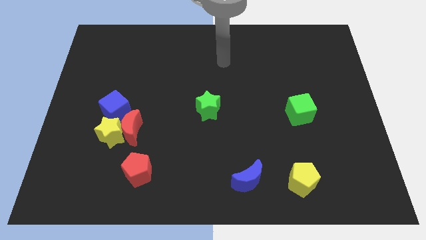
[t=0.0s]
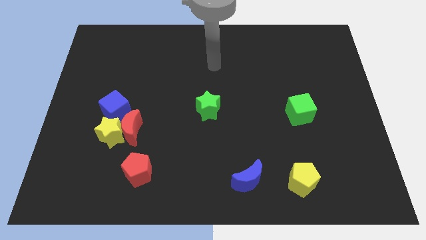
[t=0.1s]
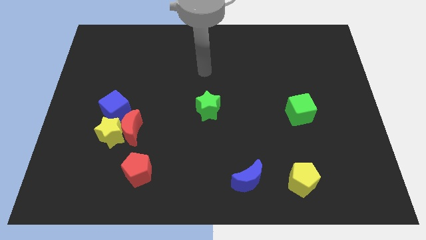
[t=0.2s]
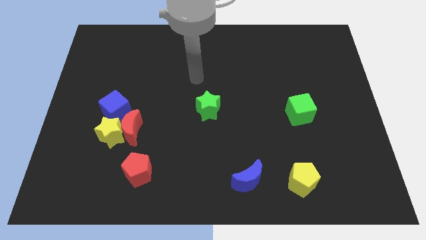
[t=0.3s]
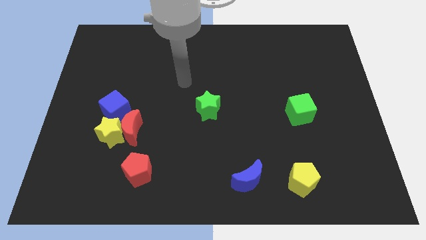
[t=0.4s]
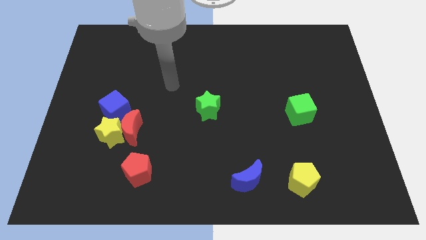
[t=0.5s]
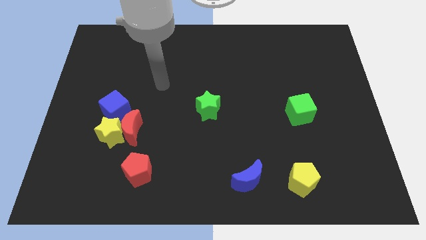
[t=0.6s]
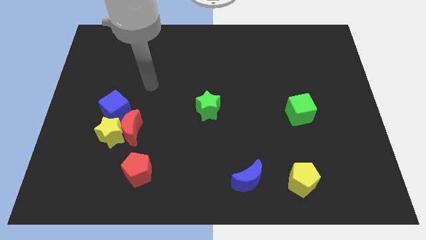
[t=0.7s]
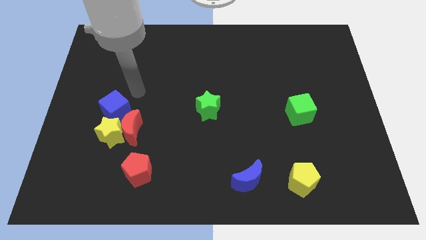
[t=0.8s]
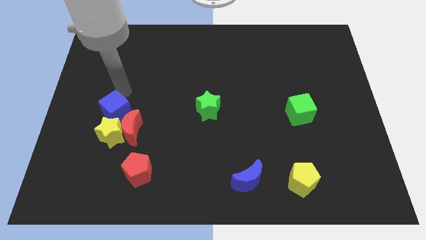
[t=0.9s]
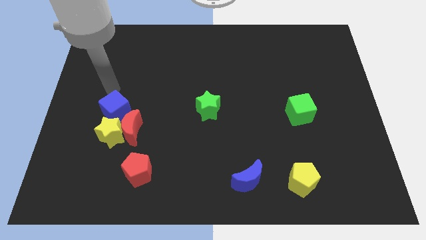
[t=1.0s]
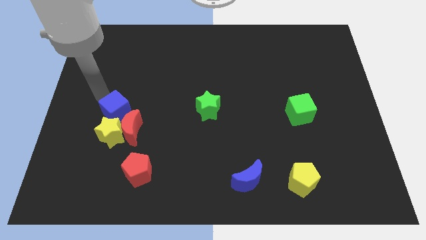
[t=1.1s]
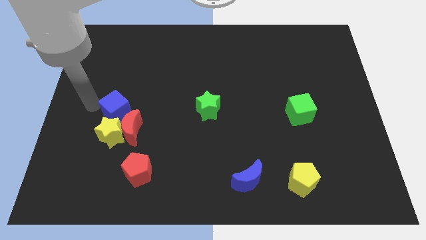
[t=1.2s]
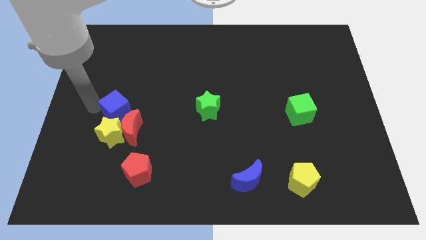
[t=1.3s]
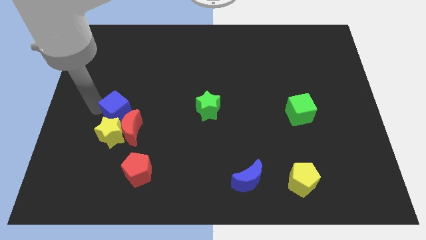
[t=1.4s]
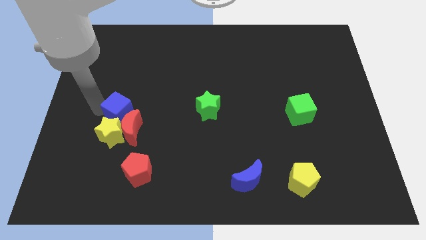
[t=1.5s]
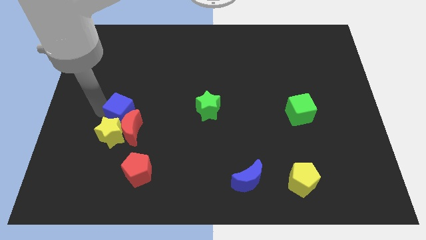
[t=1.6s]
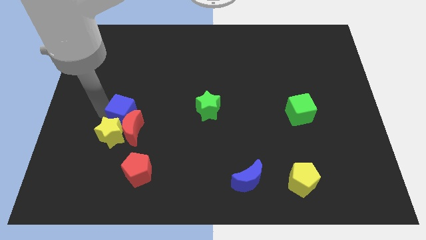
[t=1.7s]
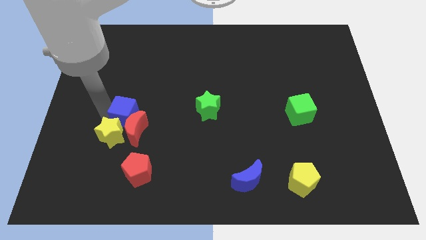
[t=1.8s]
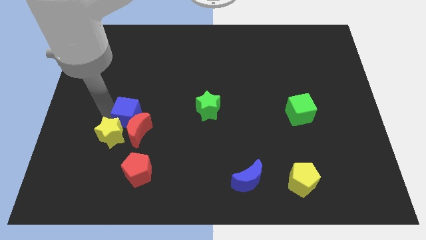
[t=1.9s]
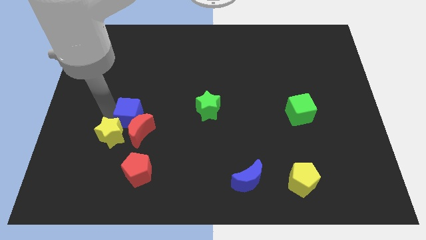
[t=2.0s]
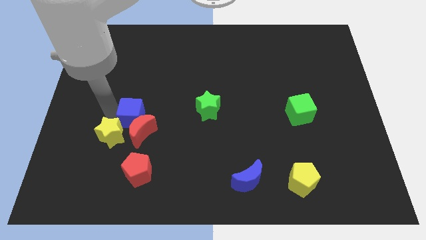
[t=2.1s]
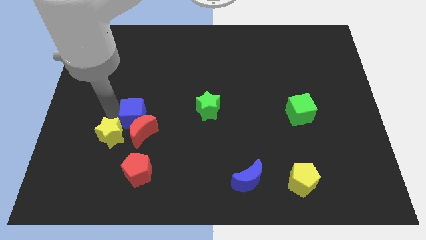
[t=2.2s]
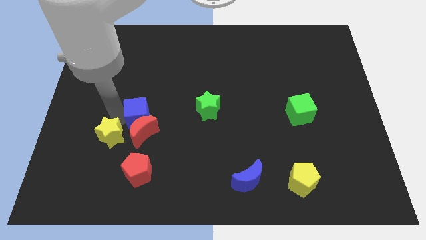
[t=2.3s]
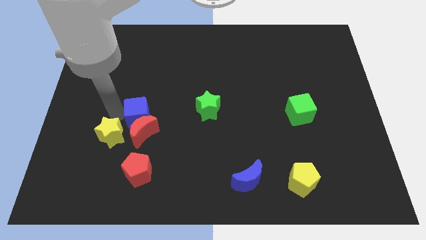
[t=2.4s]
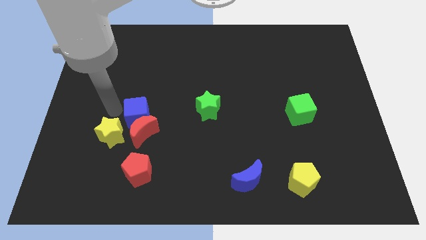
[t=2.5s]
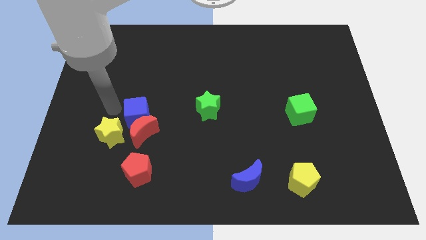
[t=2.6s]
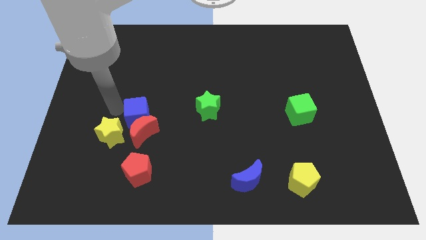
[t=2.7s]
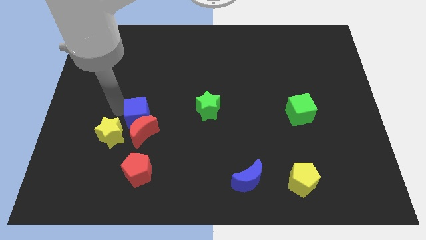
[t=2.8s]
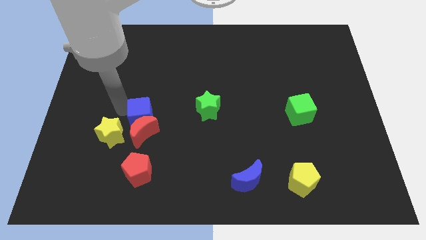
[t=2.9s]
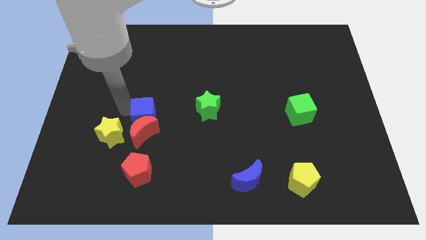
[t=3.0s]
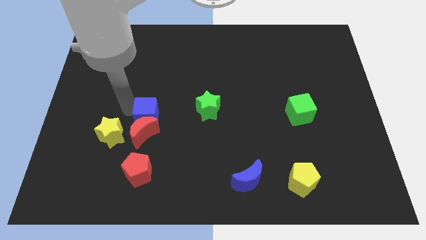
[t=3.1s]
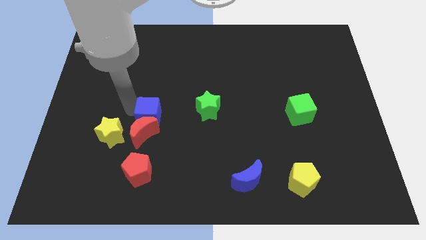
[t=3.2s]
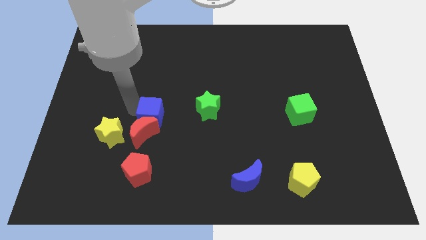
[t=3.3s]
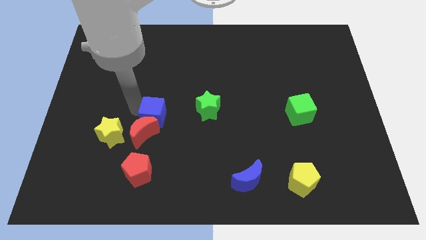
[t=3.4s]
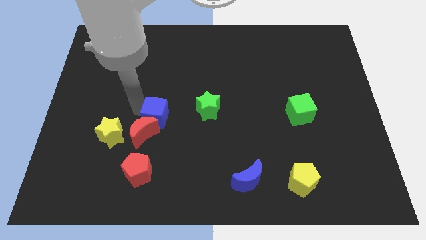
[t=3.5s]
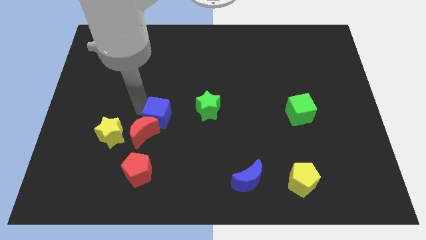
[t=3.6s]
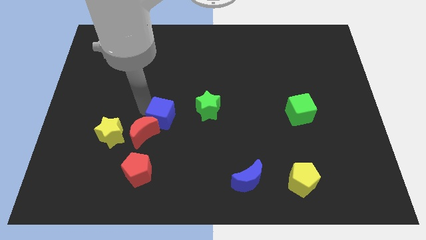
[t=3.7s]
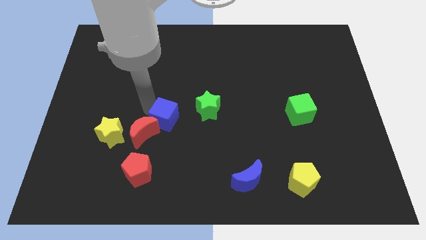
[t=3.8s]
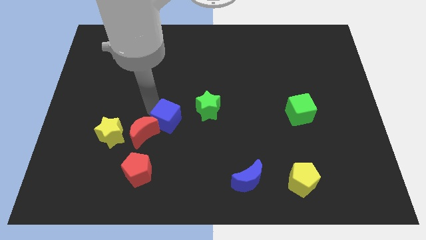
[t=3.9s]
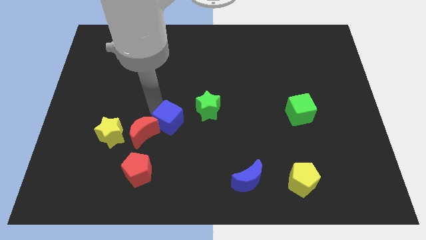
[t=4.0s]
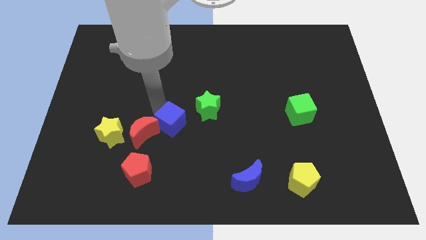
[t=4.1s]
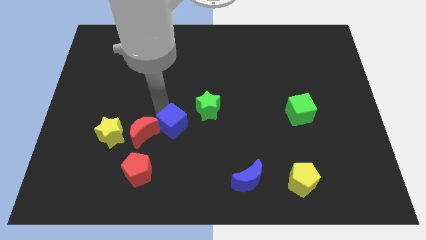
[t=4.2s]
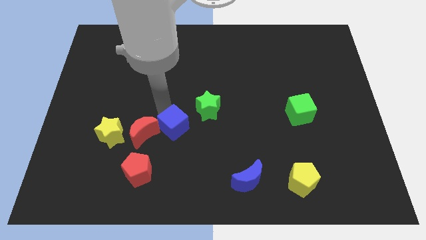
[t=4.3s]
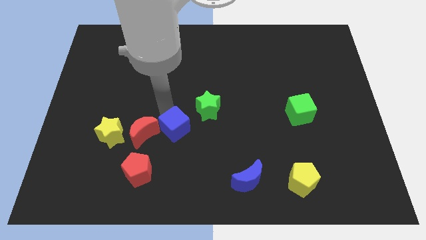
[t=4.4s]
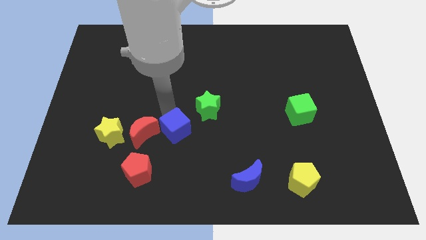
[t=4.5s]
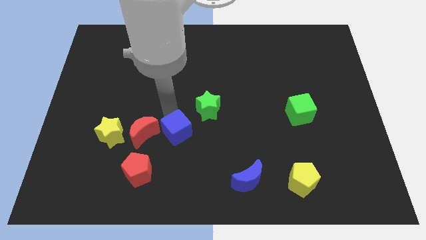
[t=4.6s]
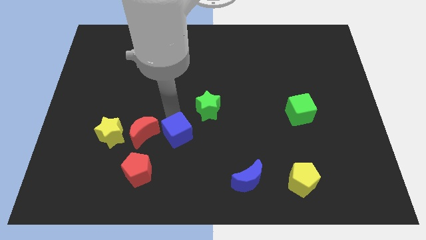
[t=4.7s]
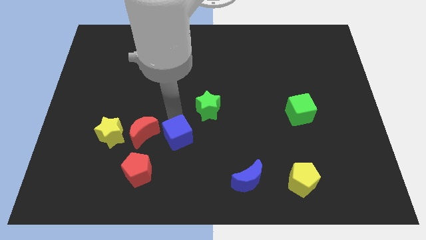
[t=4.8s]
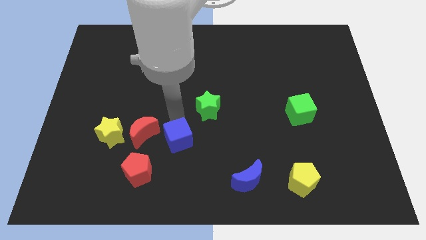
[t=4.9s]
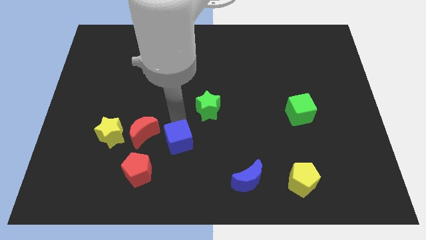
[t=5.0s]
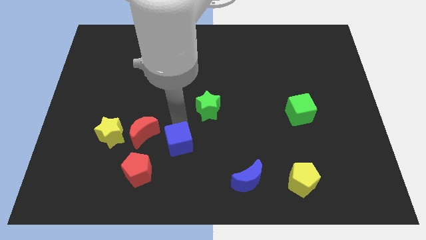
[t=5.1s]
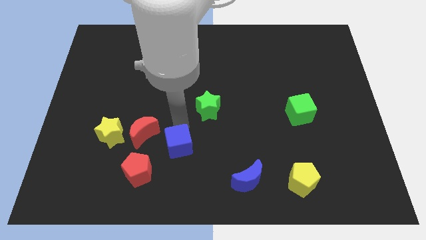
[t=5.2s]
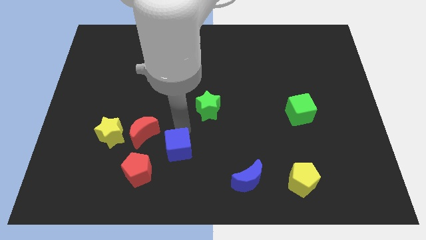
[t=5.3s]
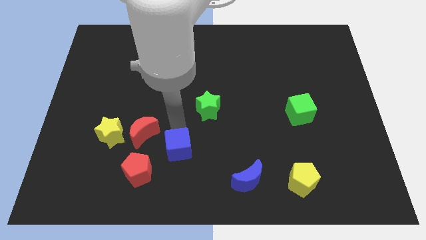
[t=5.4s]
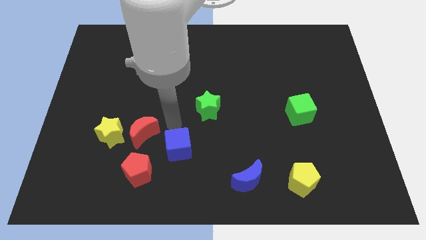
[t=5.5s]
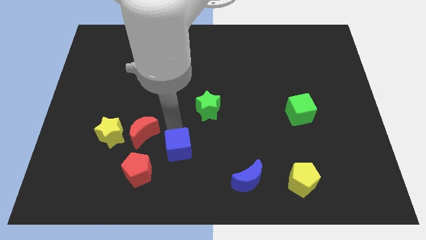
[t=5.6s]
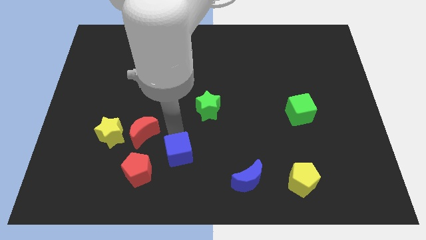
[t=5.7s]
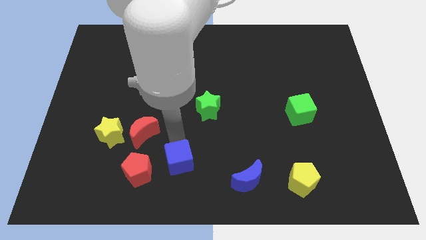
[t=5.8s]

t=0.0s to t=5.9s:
push the blue cube to the bottom side
